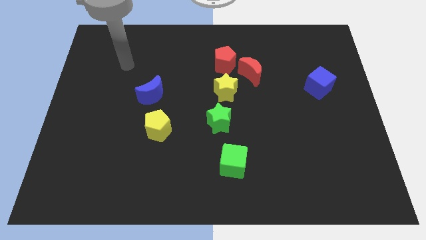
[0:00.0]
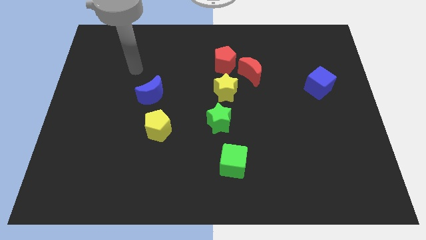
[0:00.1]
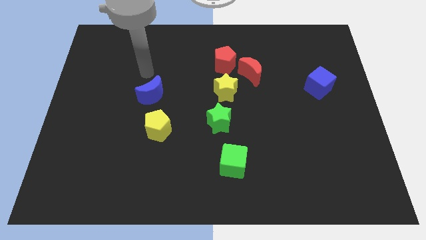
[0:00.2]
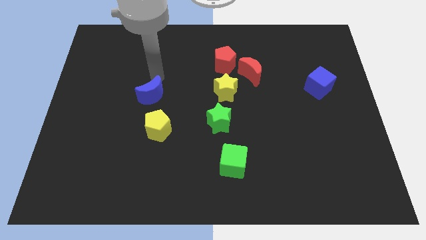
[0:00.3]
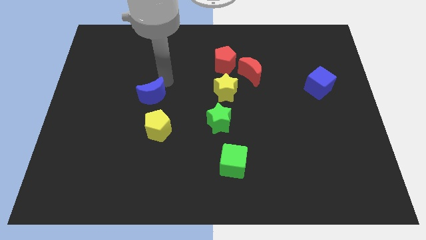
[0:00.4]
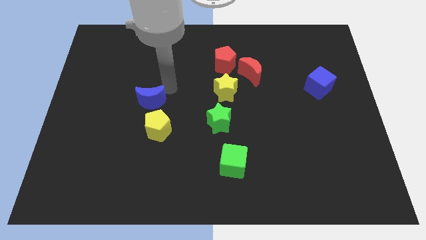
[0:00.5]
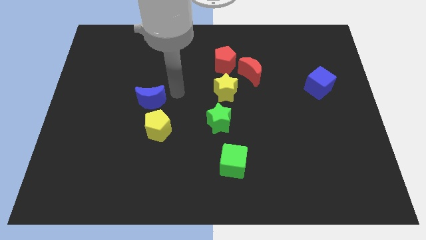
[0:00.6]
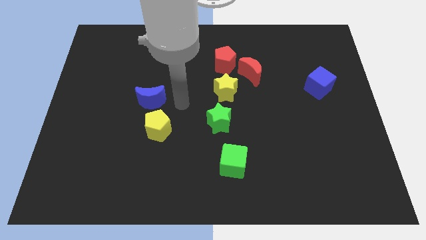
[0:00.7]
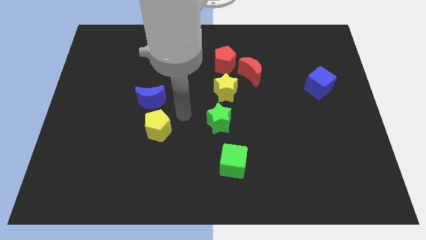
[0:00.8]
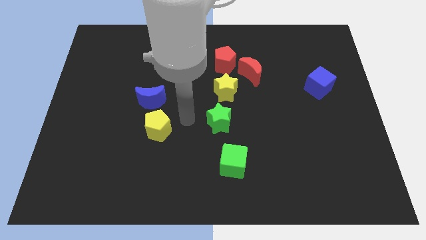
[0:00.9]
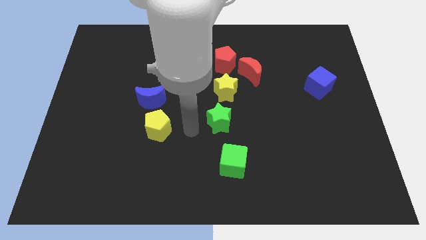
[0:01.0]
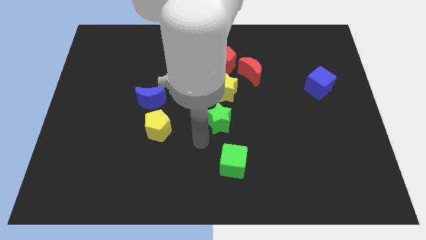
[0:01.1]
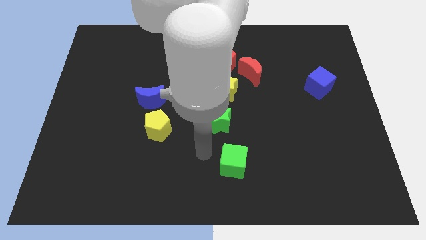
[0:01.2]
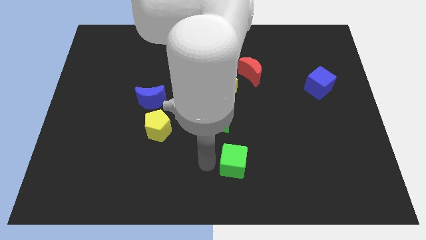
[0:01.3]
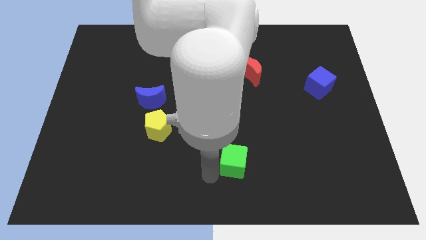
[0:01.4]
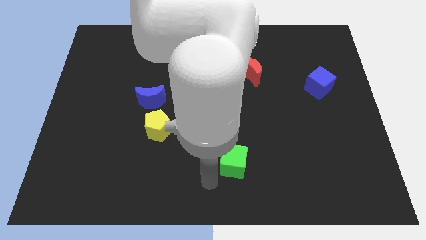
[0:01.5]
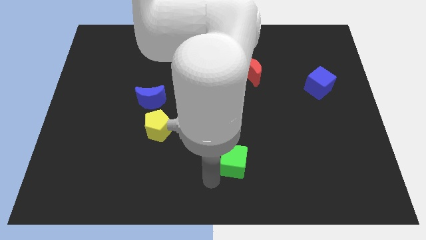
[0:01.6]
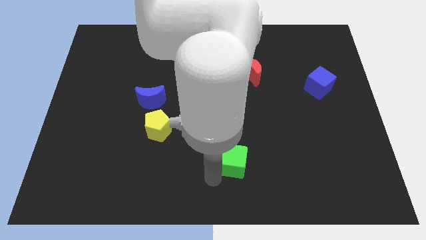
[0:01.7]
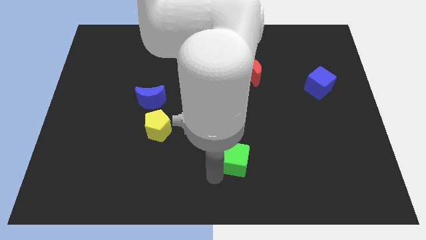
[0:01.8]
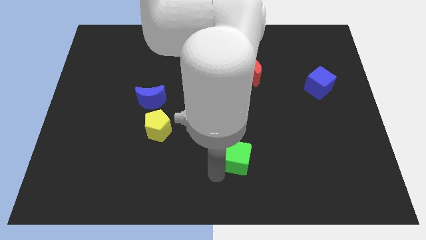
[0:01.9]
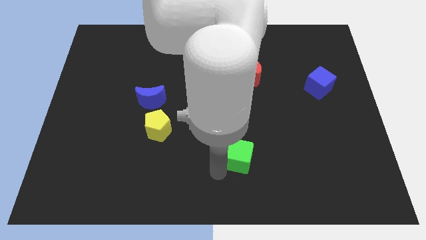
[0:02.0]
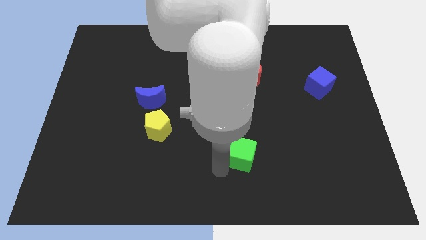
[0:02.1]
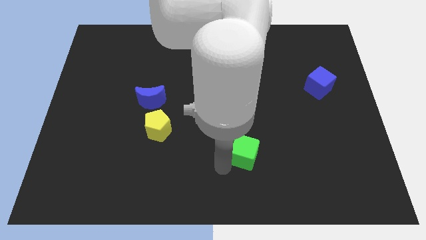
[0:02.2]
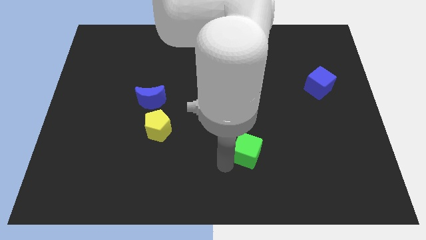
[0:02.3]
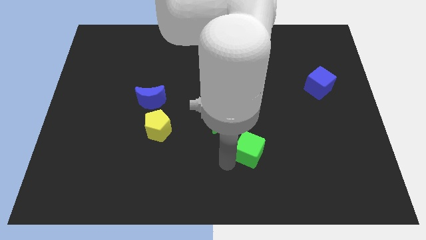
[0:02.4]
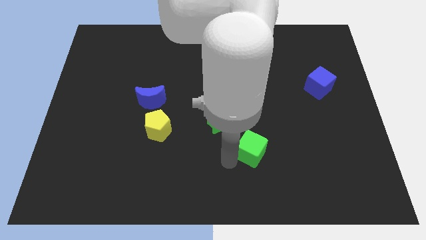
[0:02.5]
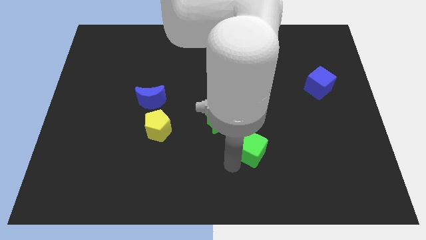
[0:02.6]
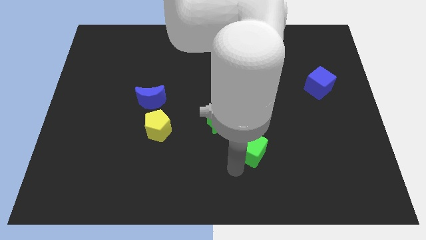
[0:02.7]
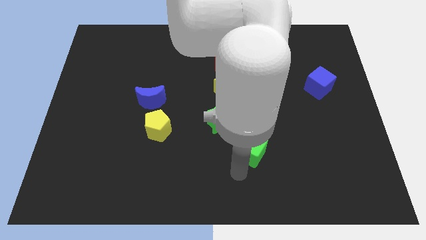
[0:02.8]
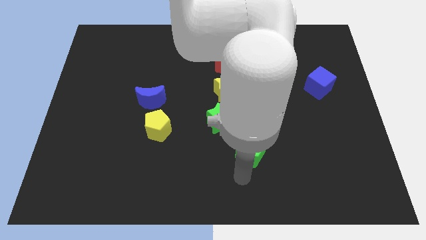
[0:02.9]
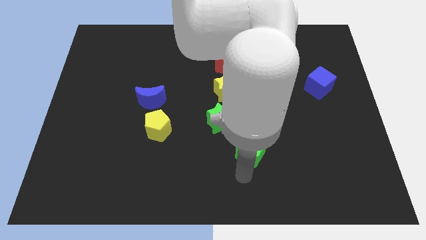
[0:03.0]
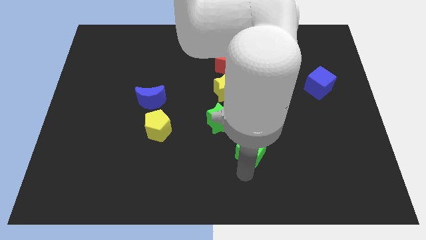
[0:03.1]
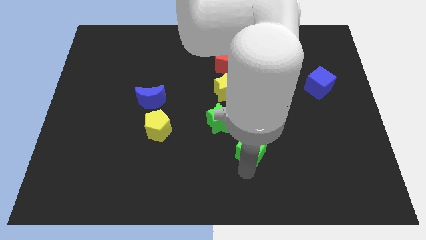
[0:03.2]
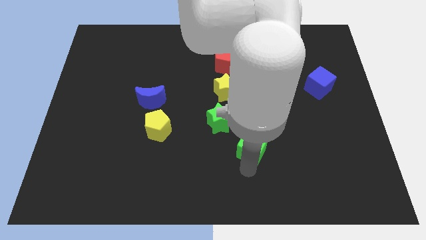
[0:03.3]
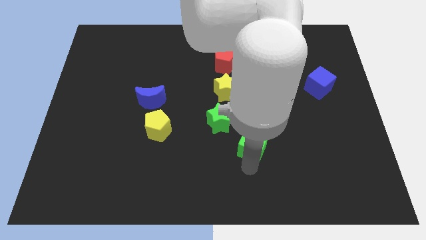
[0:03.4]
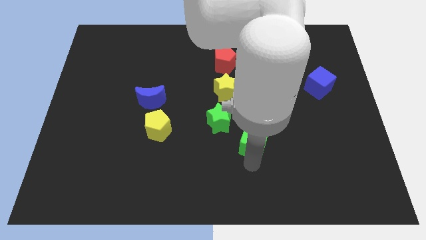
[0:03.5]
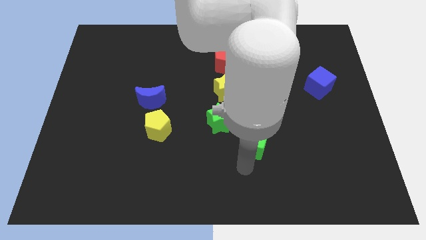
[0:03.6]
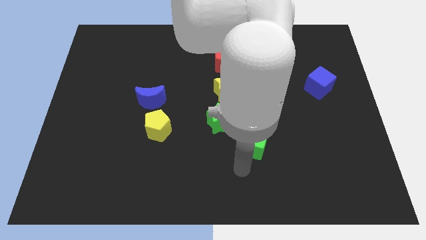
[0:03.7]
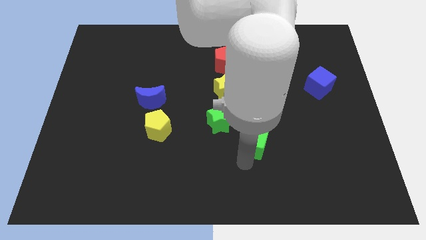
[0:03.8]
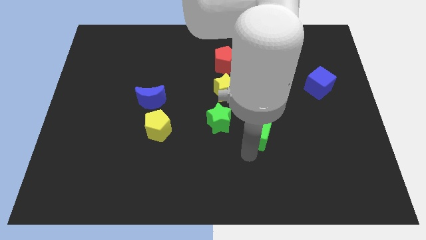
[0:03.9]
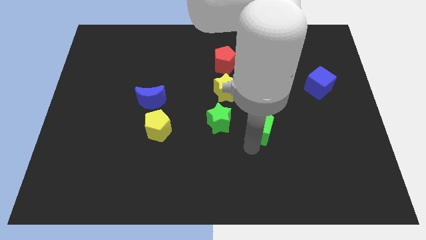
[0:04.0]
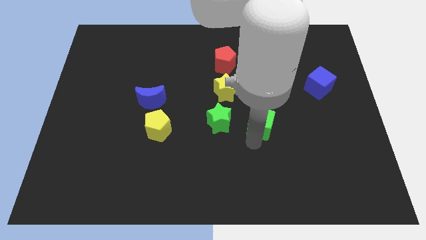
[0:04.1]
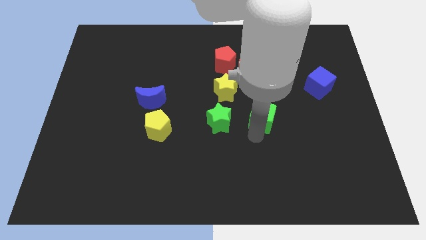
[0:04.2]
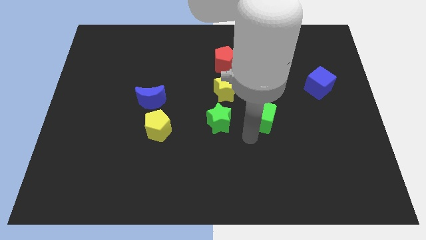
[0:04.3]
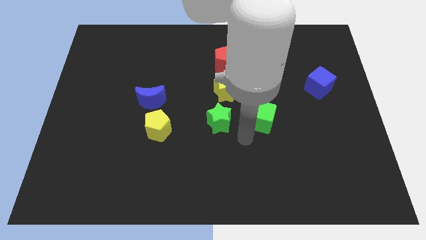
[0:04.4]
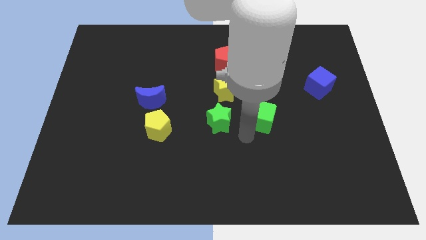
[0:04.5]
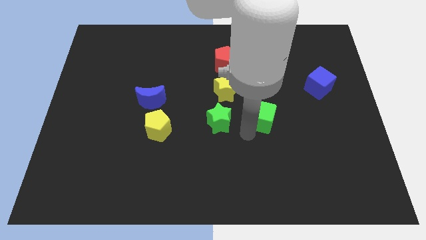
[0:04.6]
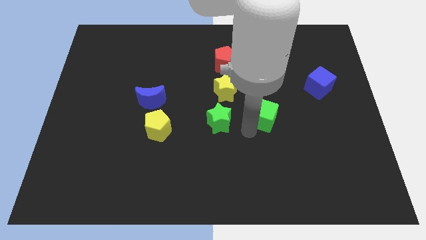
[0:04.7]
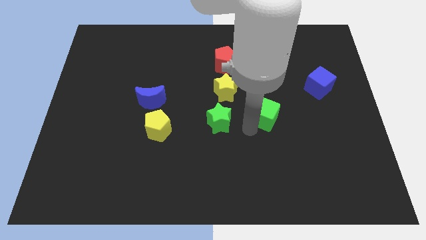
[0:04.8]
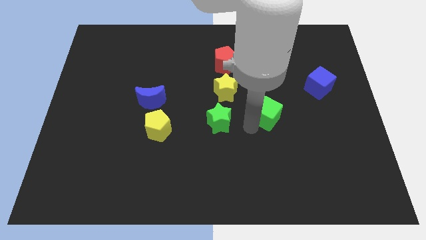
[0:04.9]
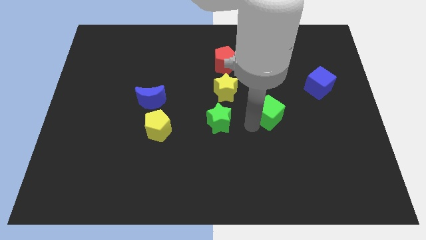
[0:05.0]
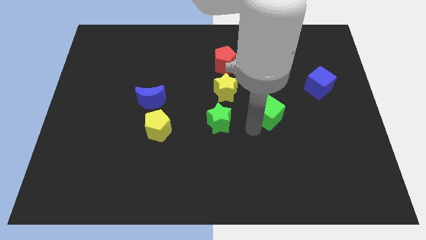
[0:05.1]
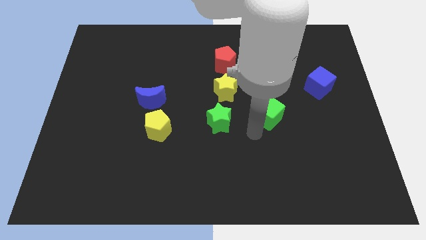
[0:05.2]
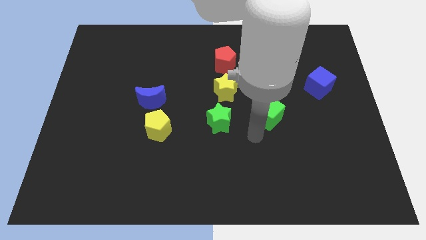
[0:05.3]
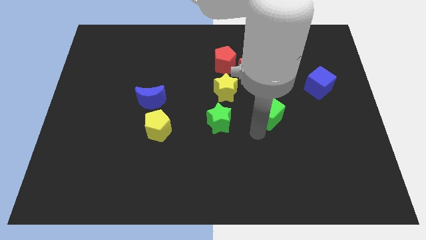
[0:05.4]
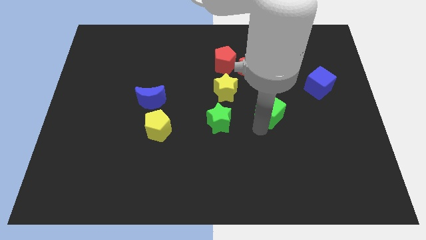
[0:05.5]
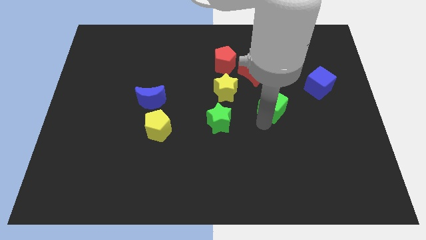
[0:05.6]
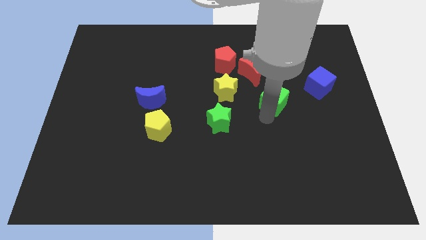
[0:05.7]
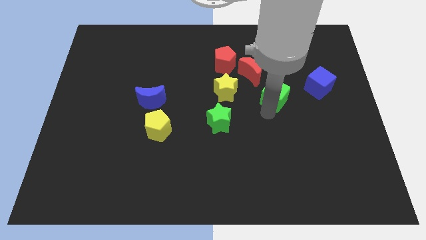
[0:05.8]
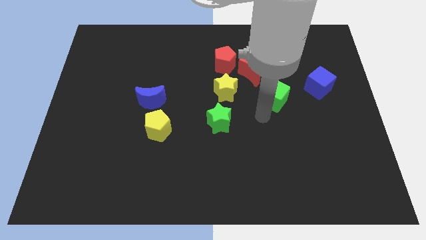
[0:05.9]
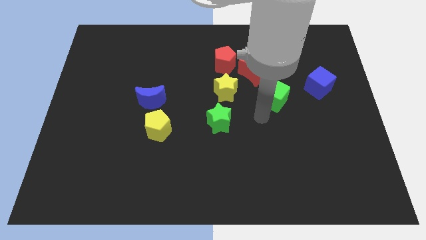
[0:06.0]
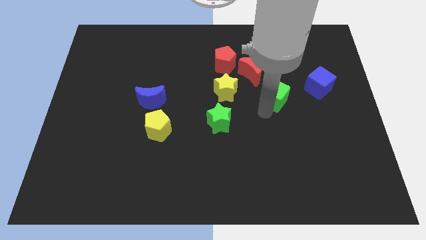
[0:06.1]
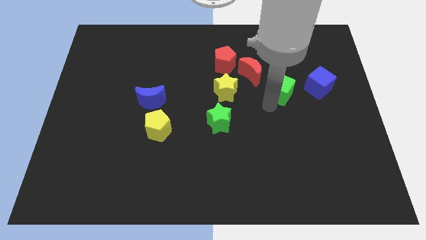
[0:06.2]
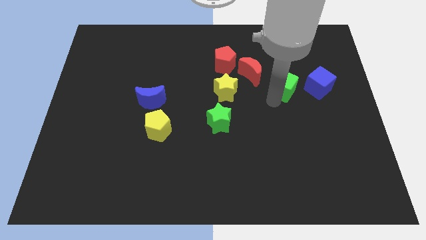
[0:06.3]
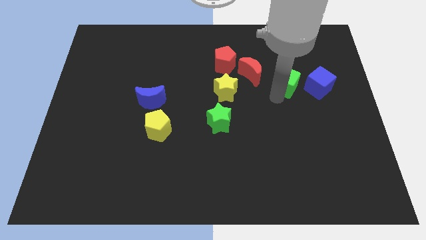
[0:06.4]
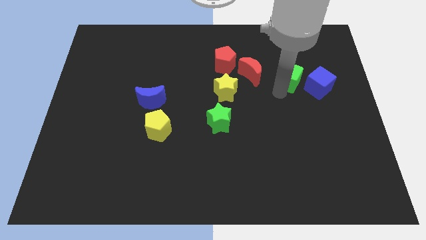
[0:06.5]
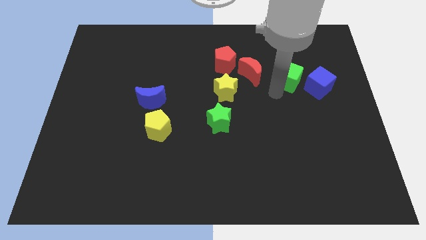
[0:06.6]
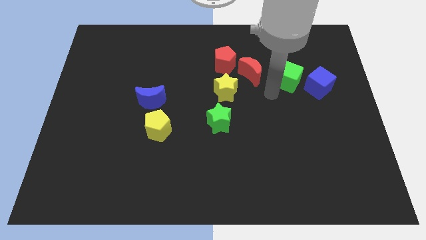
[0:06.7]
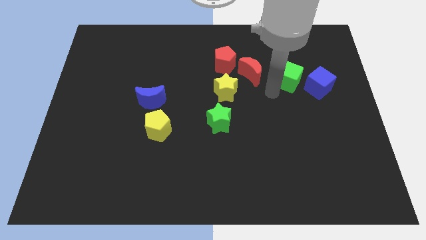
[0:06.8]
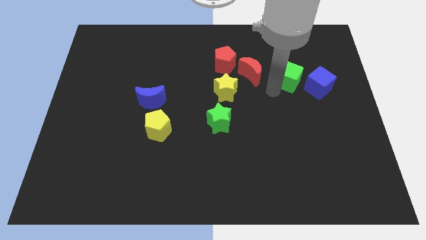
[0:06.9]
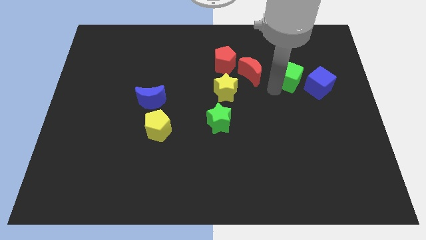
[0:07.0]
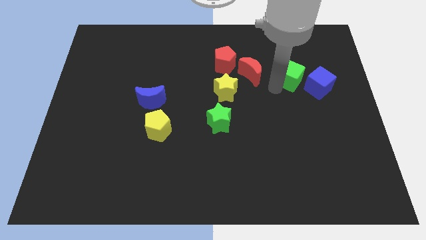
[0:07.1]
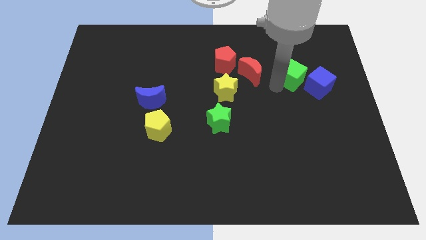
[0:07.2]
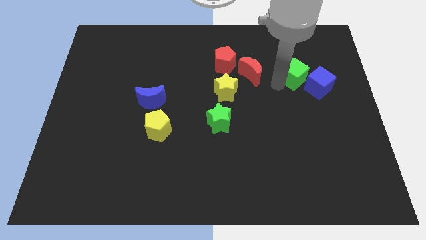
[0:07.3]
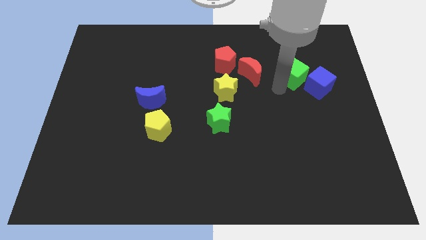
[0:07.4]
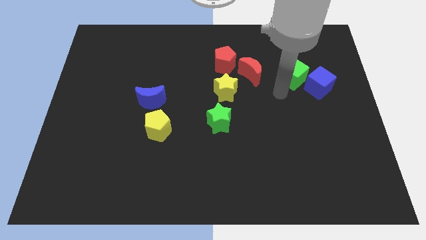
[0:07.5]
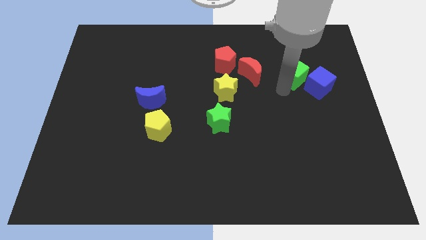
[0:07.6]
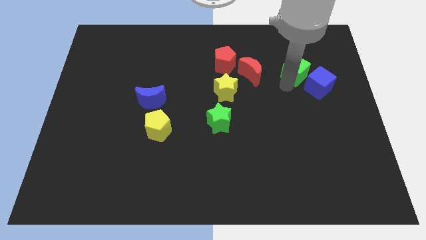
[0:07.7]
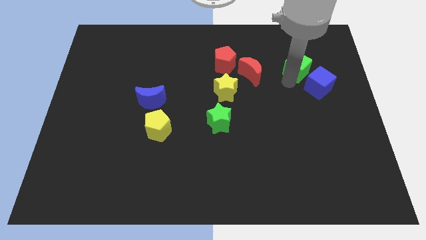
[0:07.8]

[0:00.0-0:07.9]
push the green cube to the top side of the blue cube

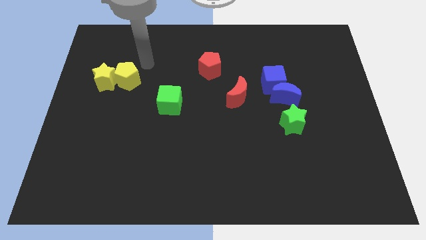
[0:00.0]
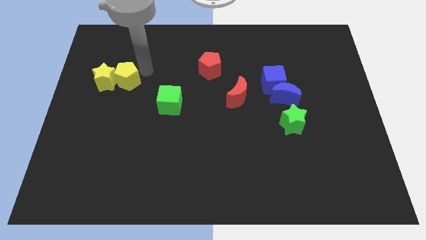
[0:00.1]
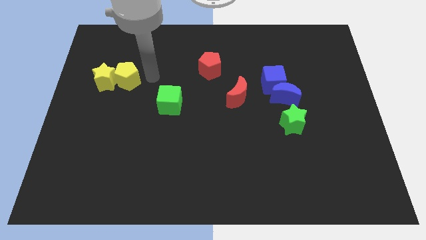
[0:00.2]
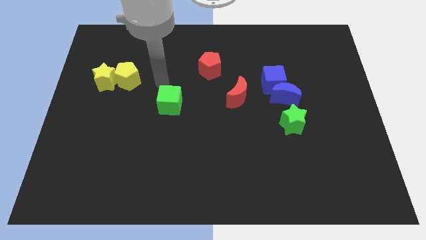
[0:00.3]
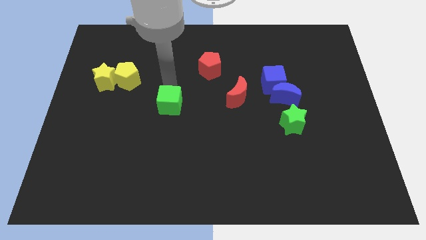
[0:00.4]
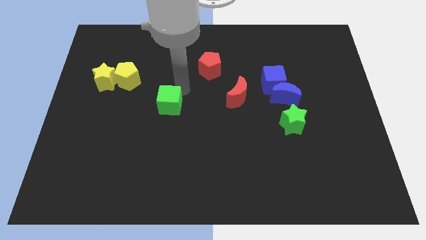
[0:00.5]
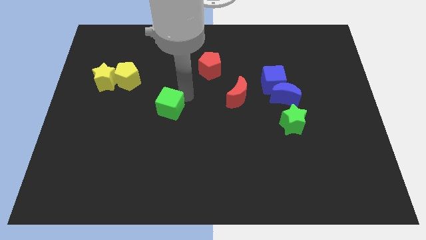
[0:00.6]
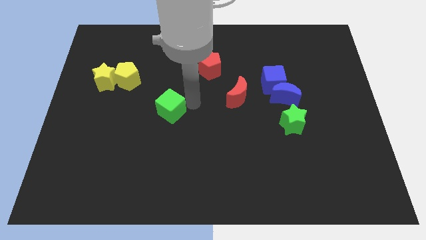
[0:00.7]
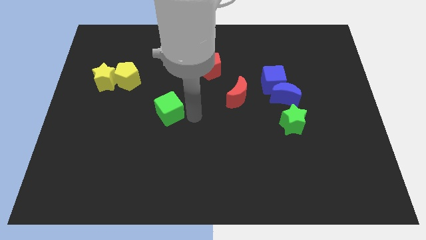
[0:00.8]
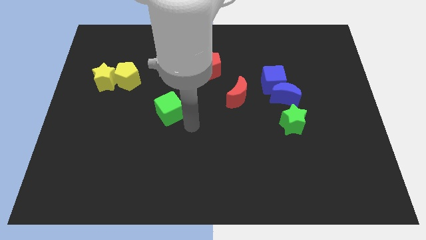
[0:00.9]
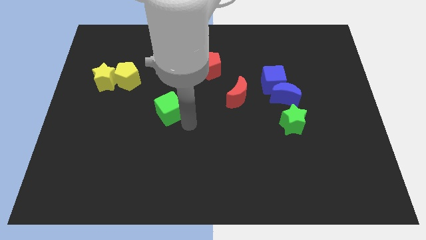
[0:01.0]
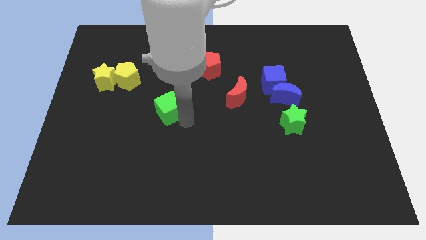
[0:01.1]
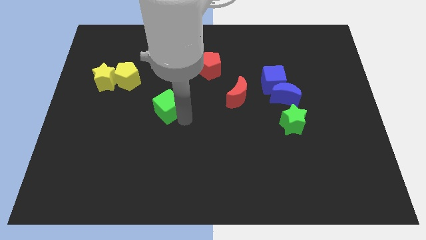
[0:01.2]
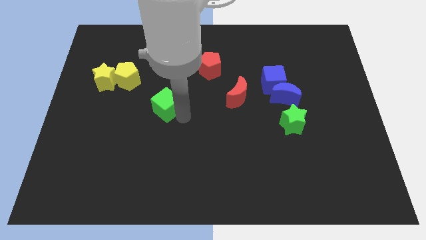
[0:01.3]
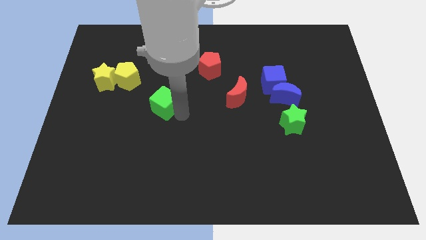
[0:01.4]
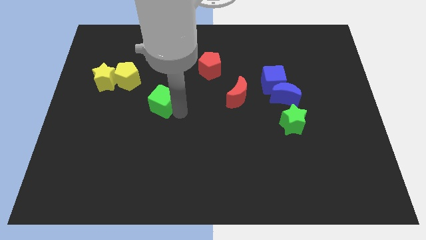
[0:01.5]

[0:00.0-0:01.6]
push the green cube to the bottom right of the yellow pentagon
